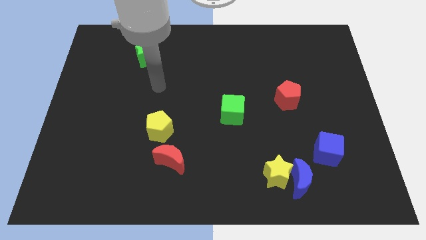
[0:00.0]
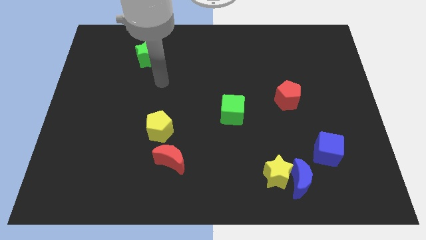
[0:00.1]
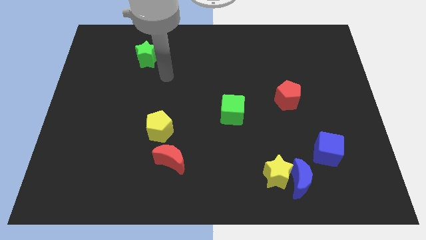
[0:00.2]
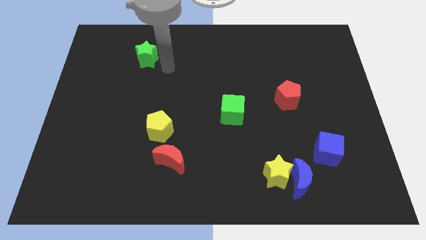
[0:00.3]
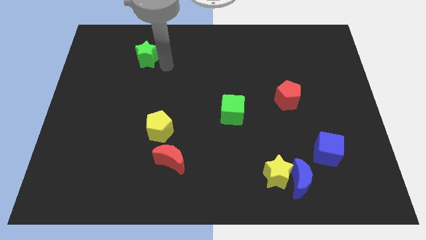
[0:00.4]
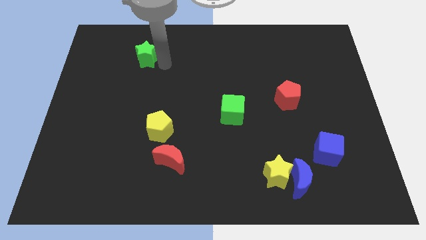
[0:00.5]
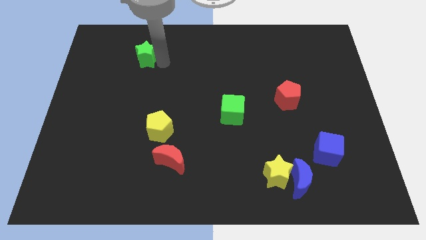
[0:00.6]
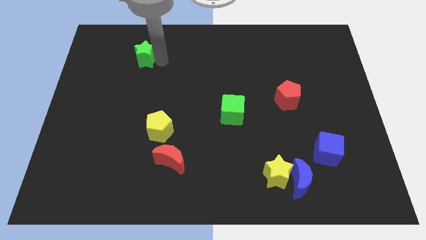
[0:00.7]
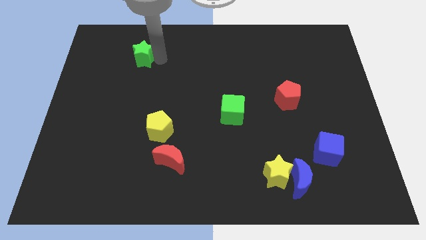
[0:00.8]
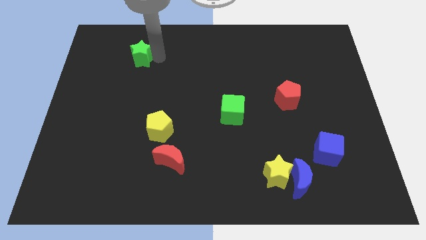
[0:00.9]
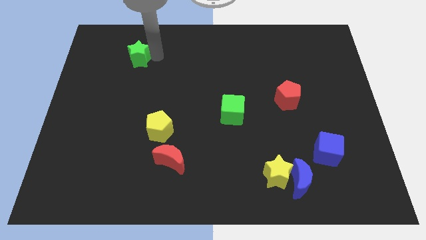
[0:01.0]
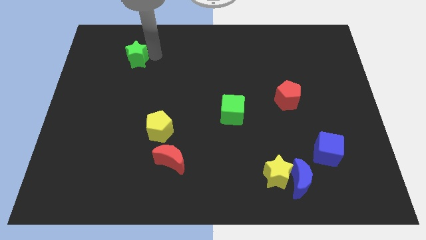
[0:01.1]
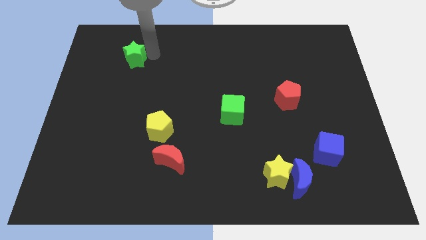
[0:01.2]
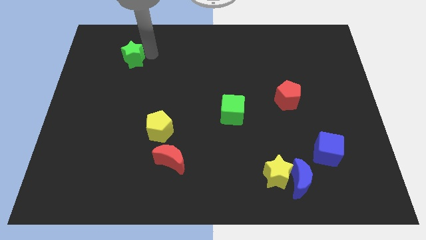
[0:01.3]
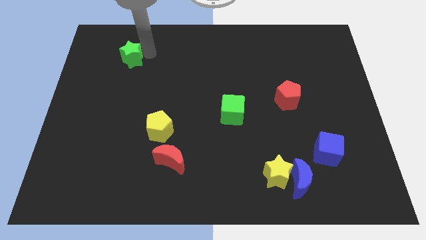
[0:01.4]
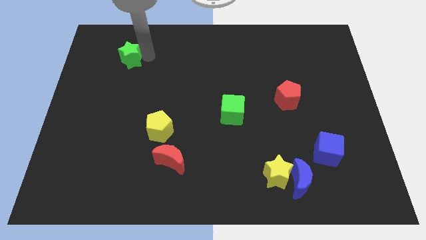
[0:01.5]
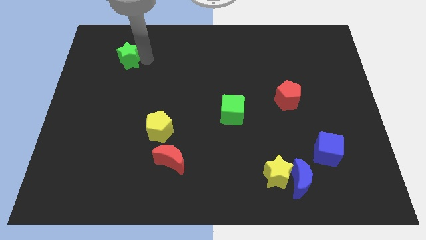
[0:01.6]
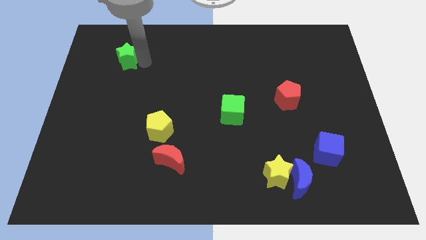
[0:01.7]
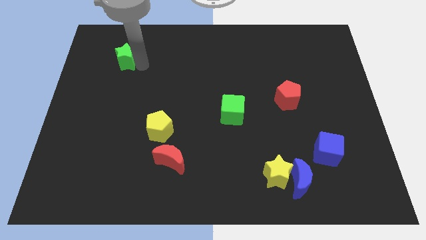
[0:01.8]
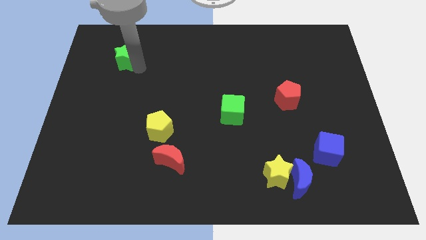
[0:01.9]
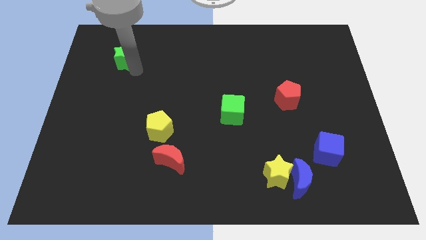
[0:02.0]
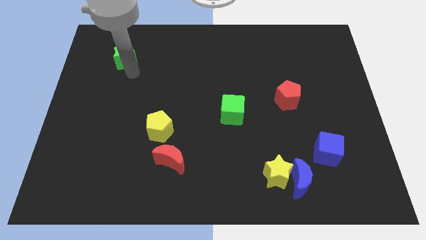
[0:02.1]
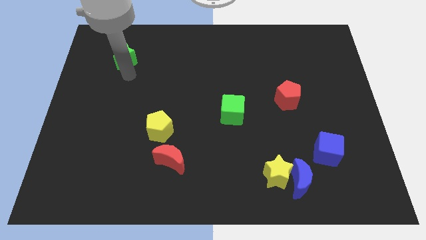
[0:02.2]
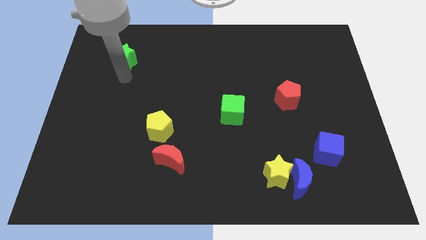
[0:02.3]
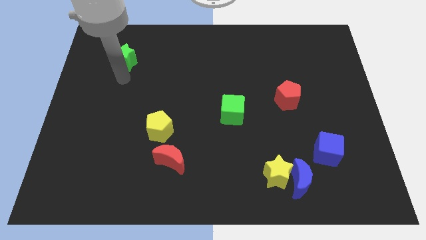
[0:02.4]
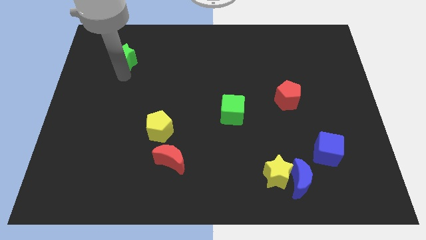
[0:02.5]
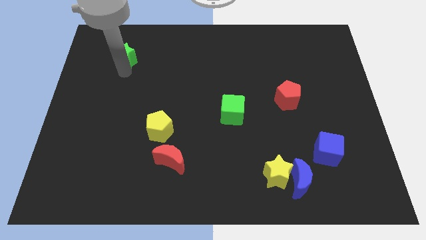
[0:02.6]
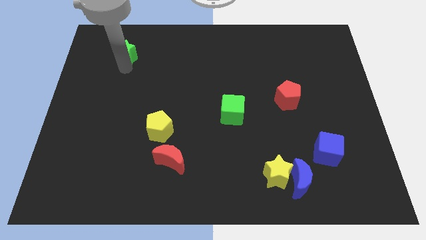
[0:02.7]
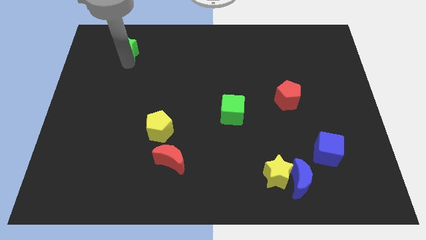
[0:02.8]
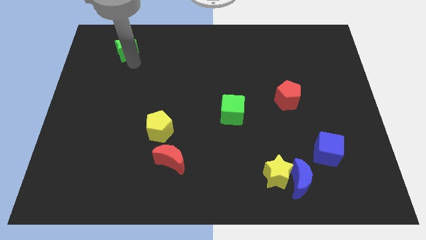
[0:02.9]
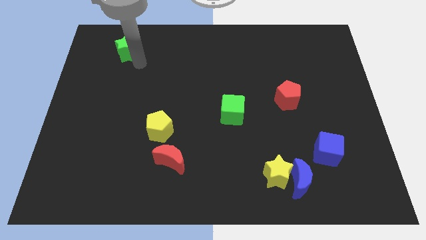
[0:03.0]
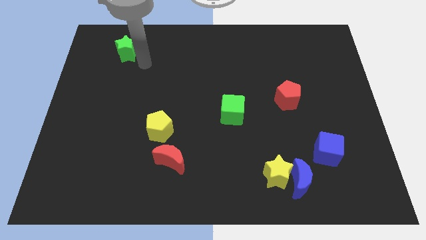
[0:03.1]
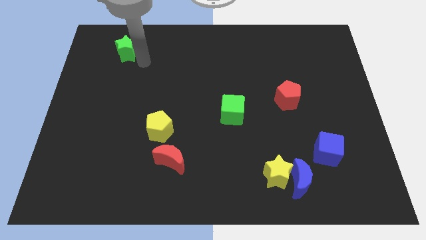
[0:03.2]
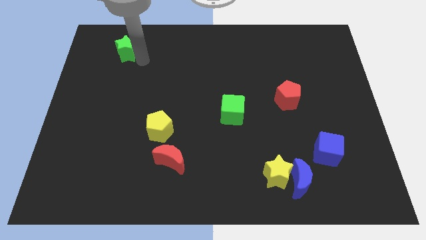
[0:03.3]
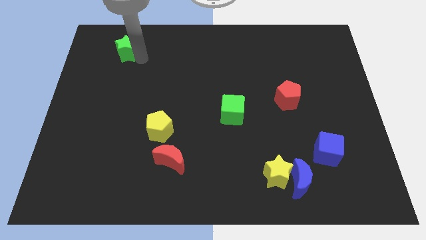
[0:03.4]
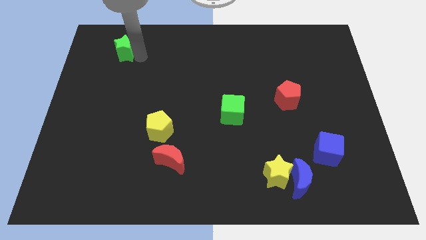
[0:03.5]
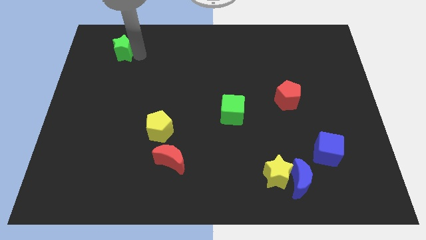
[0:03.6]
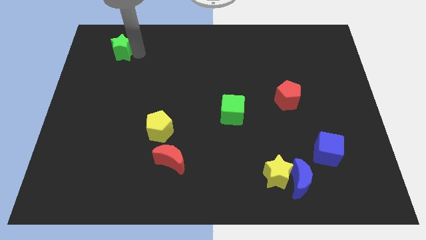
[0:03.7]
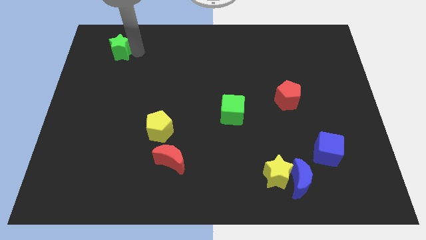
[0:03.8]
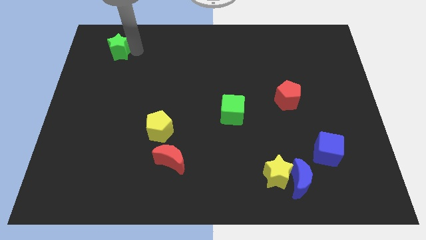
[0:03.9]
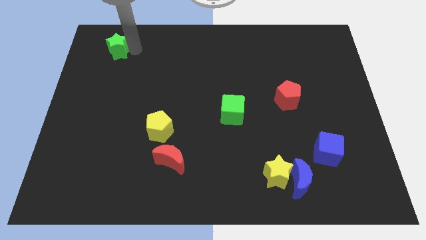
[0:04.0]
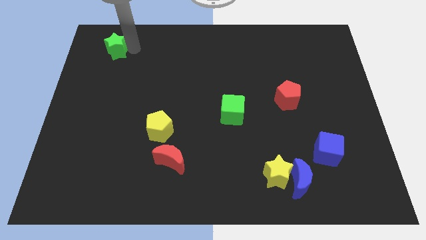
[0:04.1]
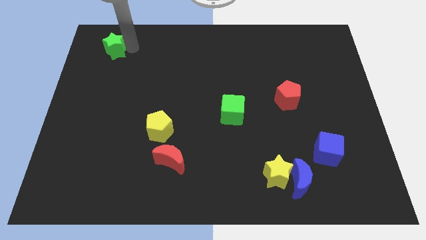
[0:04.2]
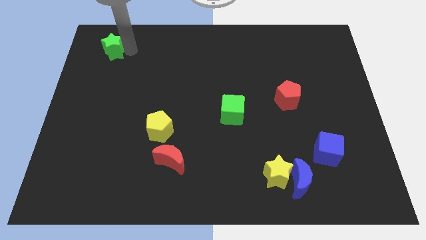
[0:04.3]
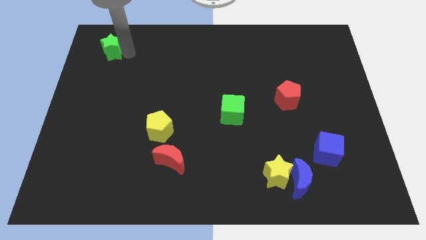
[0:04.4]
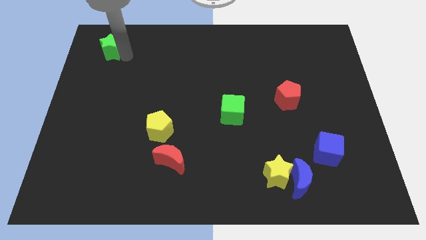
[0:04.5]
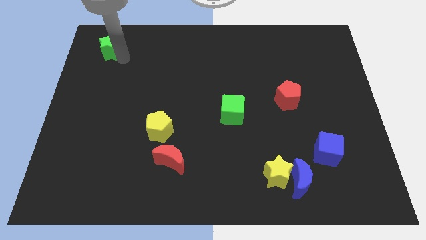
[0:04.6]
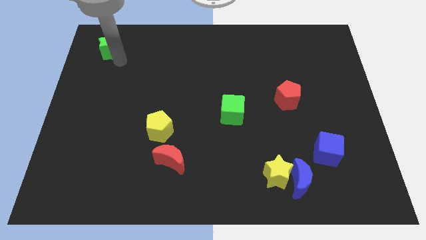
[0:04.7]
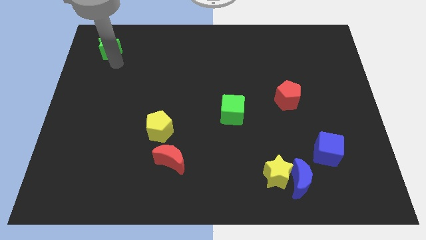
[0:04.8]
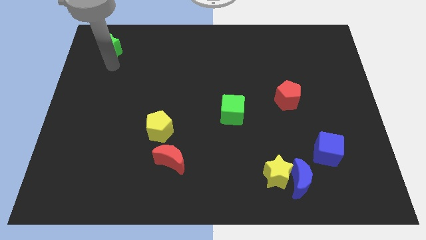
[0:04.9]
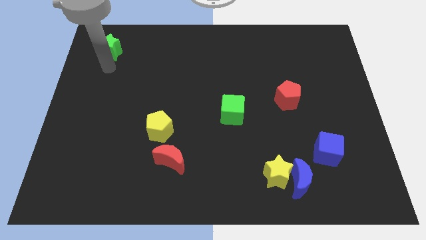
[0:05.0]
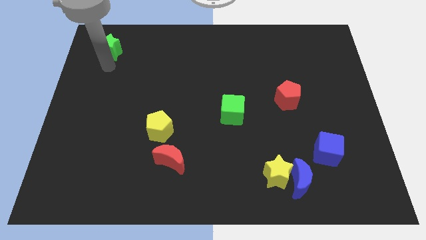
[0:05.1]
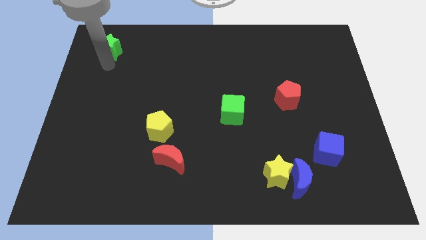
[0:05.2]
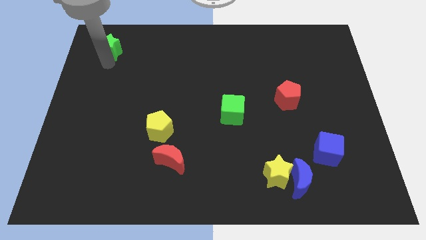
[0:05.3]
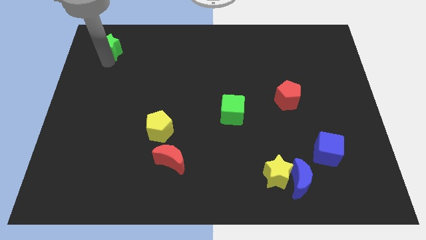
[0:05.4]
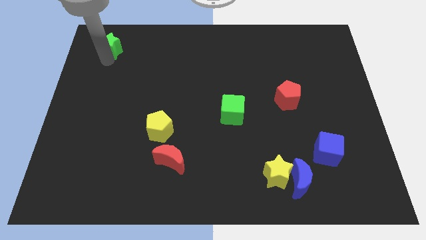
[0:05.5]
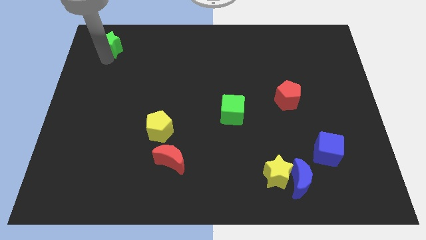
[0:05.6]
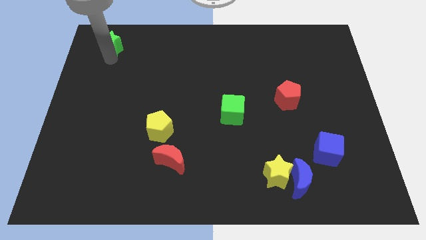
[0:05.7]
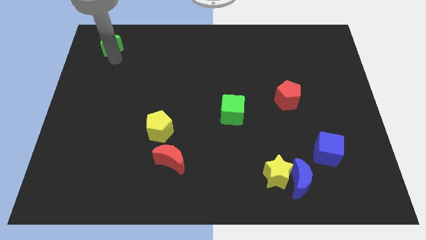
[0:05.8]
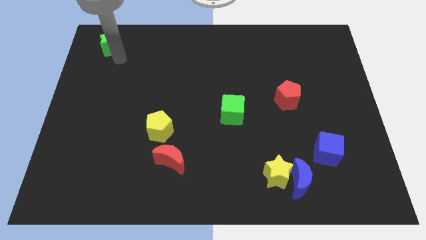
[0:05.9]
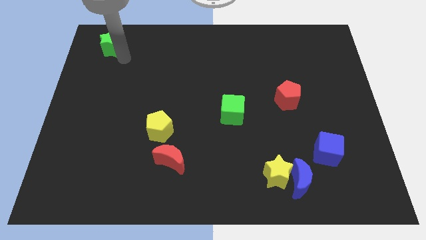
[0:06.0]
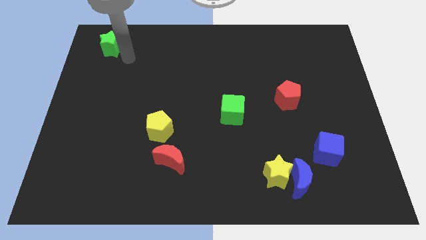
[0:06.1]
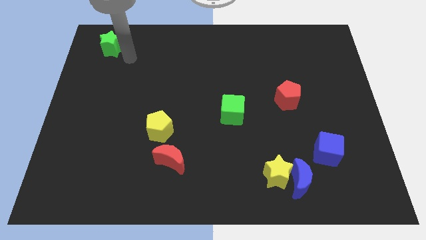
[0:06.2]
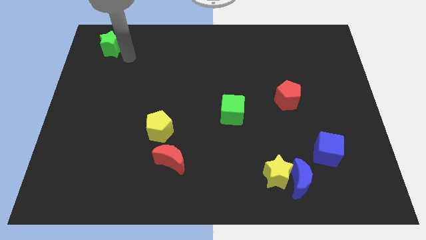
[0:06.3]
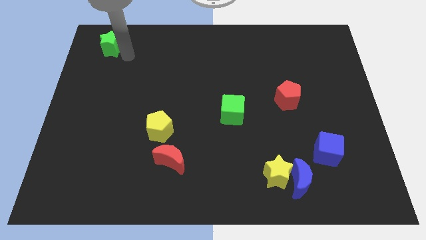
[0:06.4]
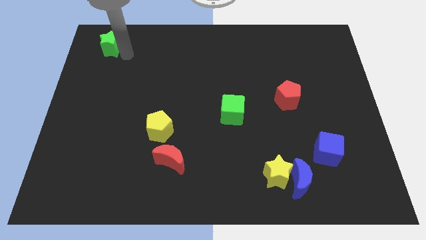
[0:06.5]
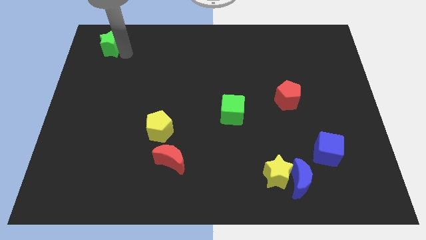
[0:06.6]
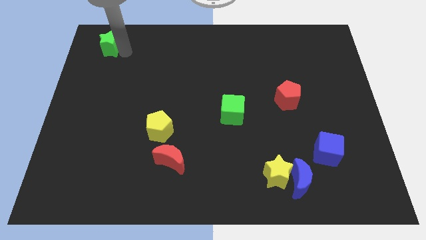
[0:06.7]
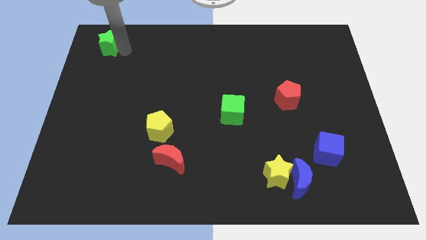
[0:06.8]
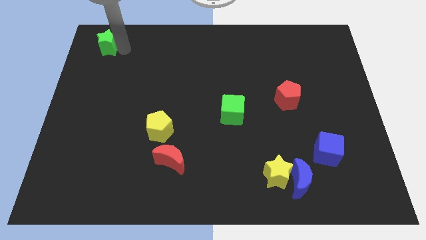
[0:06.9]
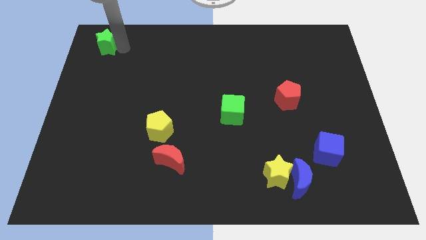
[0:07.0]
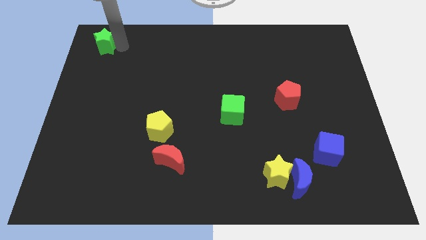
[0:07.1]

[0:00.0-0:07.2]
put the green star to the top left corner
